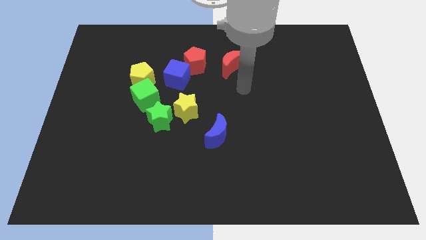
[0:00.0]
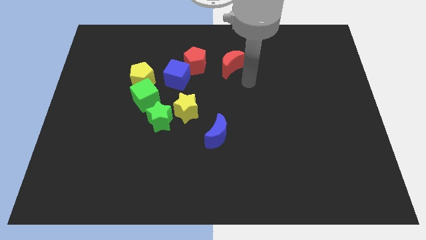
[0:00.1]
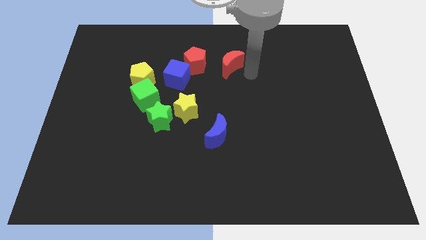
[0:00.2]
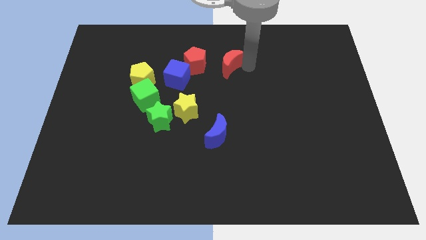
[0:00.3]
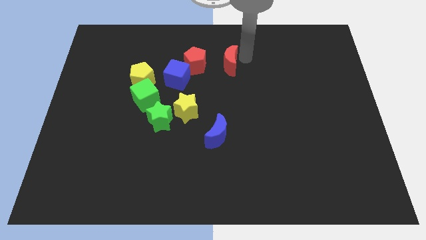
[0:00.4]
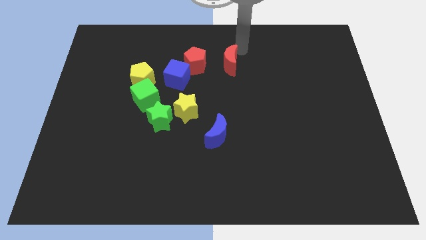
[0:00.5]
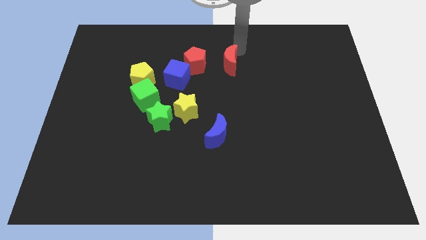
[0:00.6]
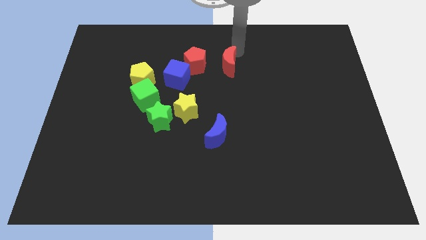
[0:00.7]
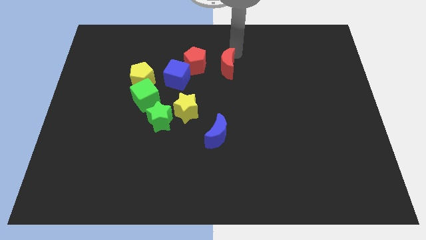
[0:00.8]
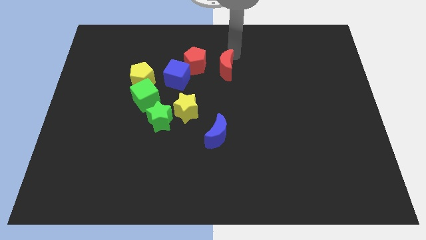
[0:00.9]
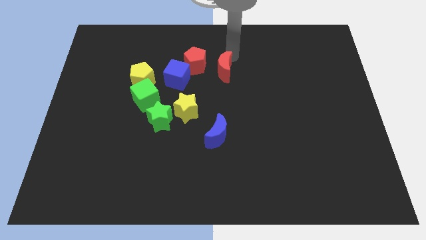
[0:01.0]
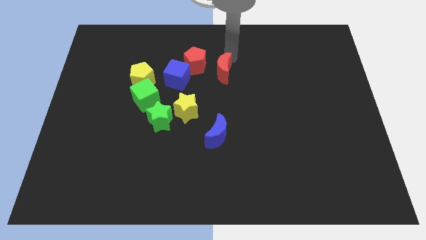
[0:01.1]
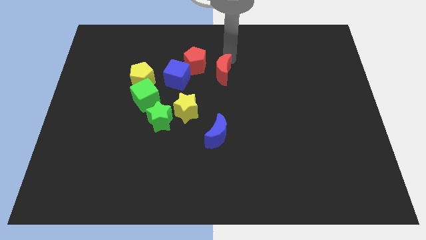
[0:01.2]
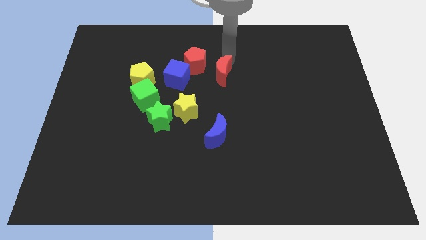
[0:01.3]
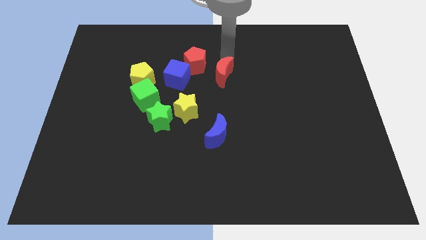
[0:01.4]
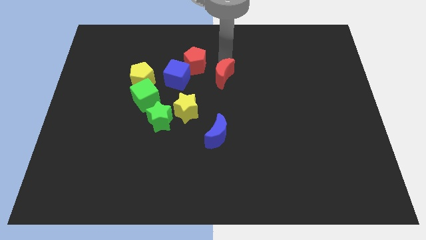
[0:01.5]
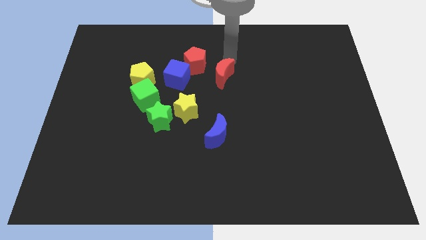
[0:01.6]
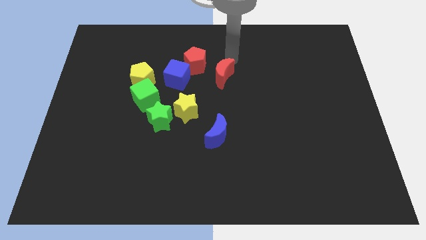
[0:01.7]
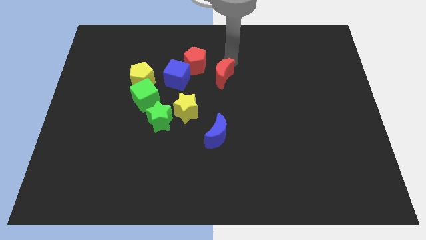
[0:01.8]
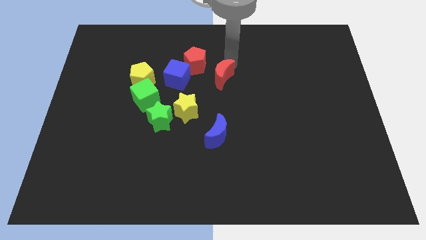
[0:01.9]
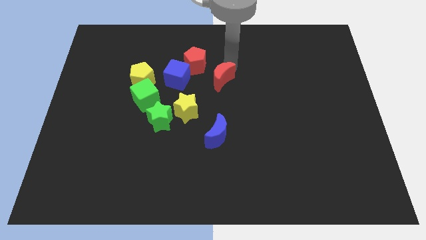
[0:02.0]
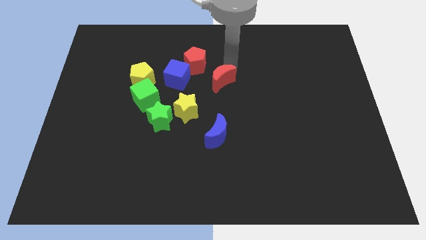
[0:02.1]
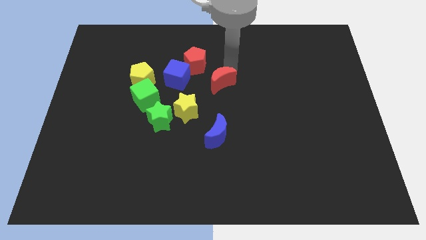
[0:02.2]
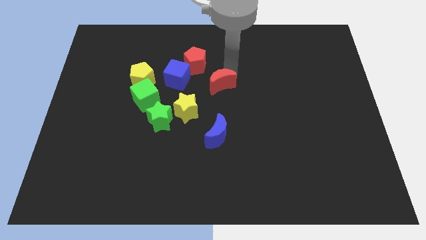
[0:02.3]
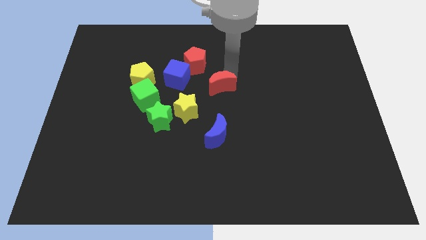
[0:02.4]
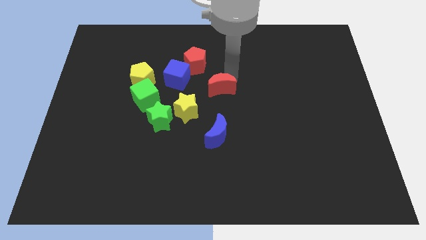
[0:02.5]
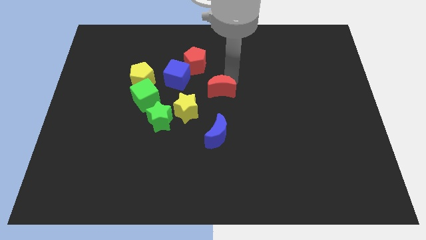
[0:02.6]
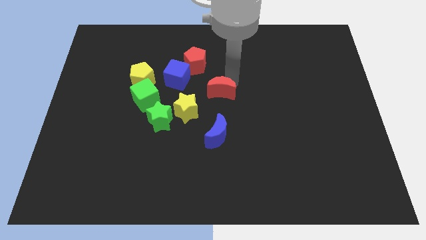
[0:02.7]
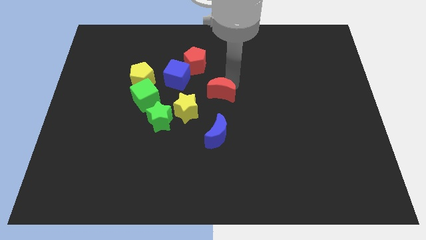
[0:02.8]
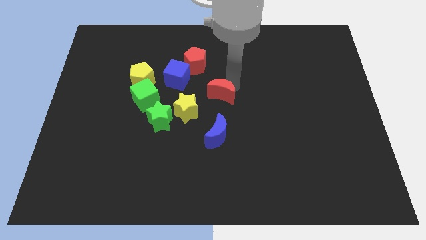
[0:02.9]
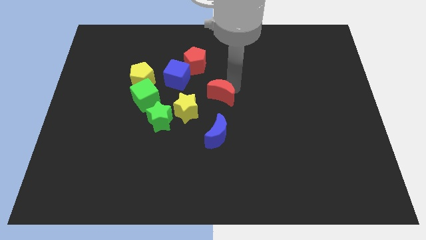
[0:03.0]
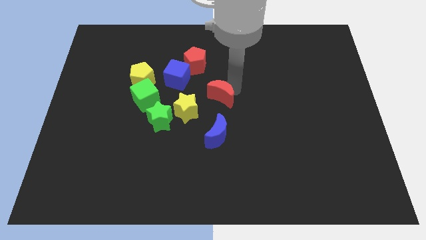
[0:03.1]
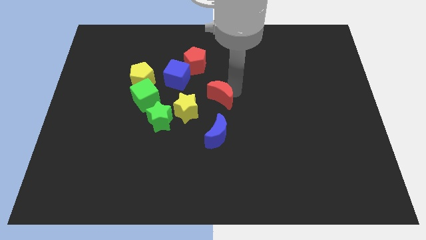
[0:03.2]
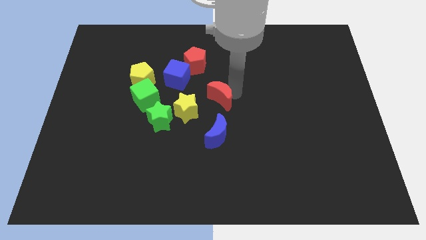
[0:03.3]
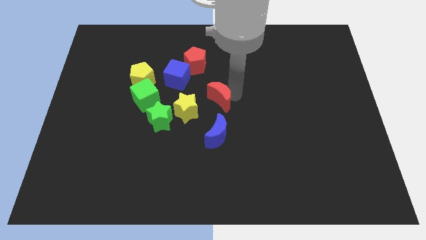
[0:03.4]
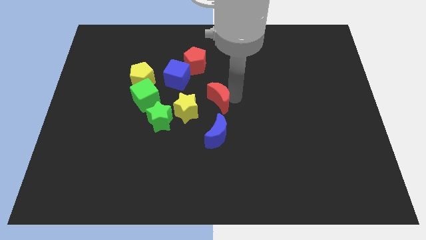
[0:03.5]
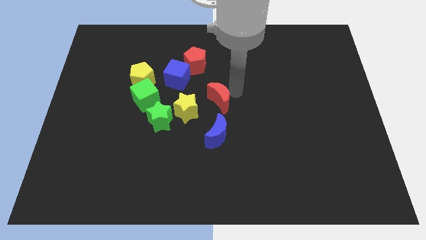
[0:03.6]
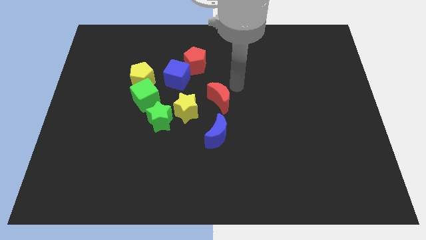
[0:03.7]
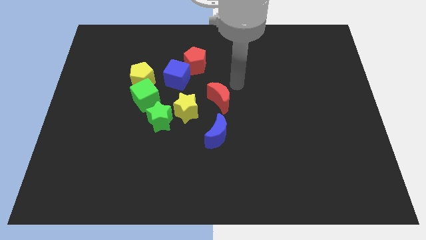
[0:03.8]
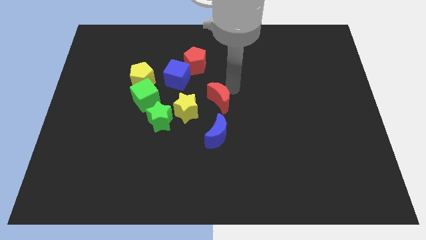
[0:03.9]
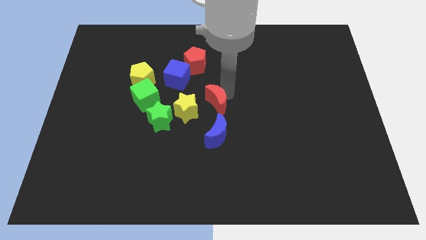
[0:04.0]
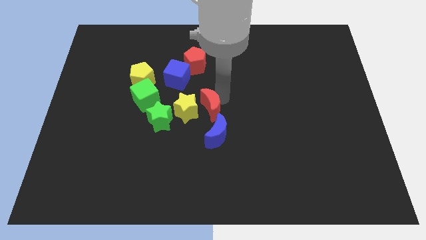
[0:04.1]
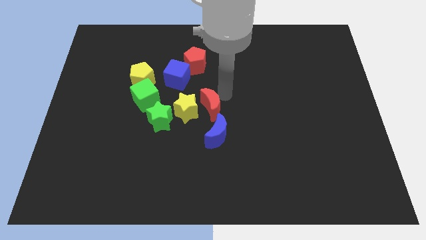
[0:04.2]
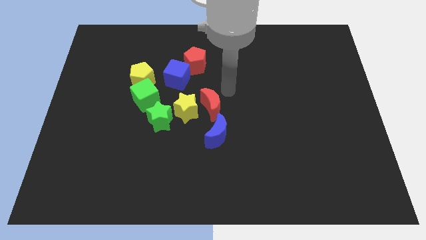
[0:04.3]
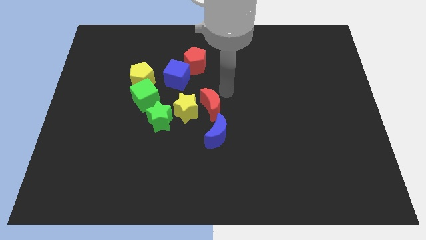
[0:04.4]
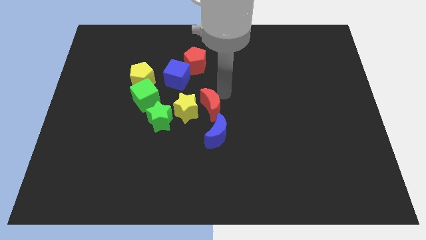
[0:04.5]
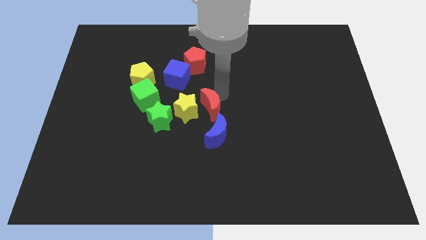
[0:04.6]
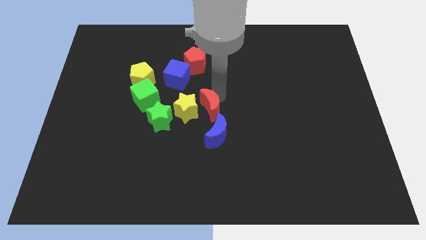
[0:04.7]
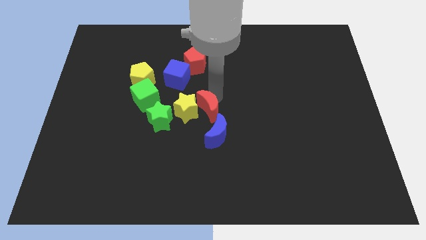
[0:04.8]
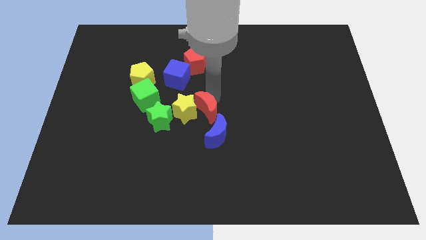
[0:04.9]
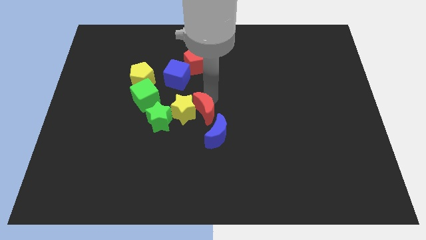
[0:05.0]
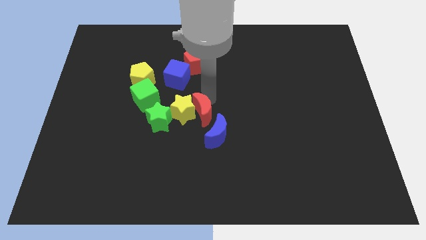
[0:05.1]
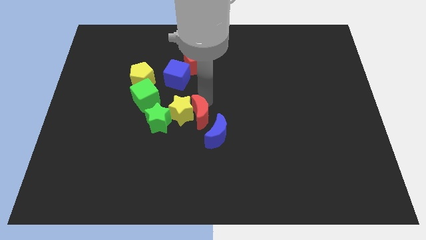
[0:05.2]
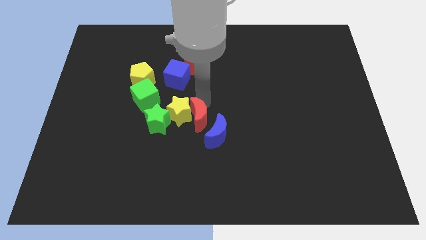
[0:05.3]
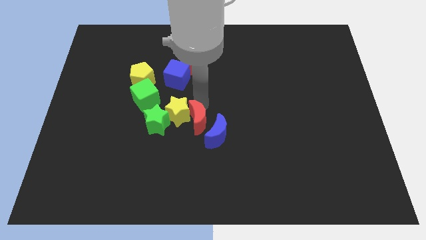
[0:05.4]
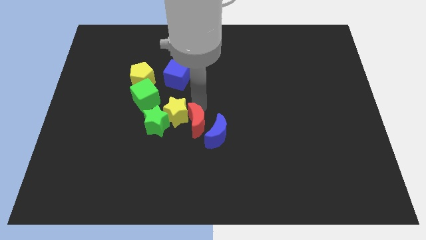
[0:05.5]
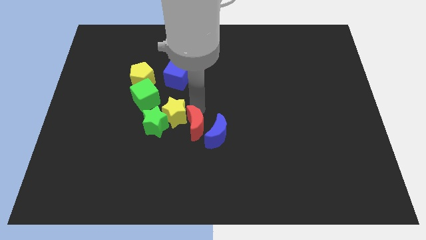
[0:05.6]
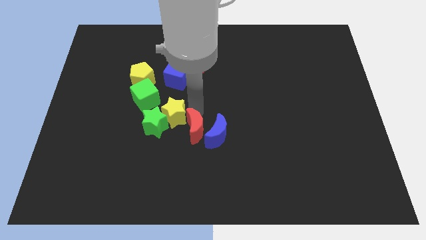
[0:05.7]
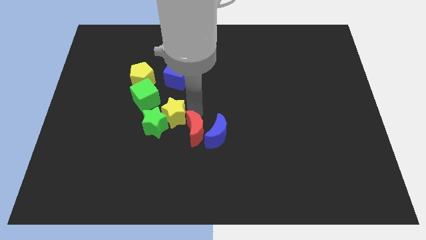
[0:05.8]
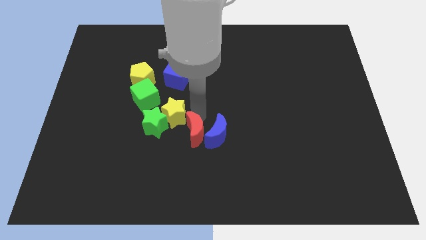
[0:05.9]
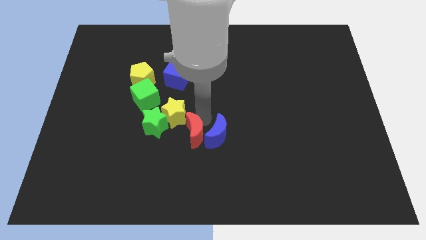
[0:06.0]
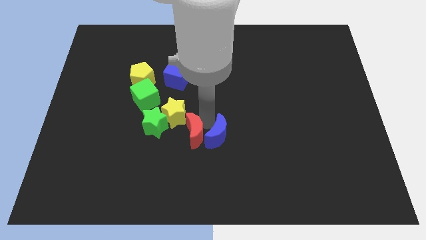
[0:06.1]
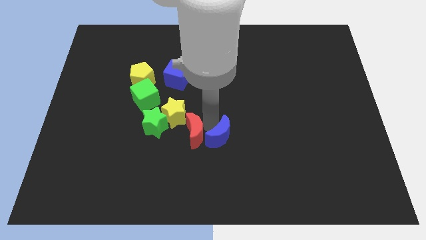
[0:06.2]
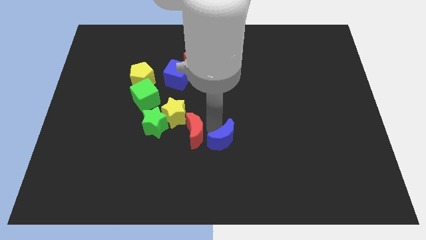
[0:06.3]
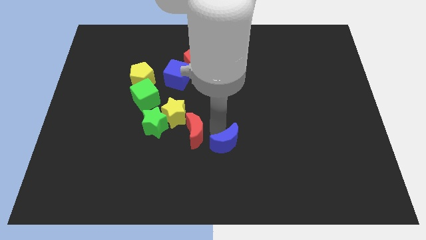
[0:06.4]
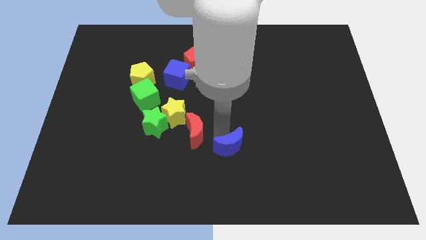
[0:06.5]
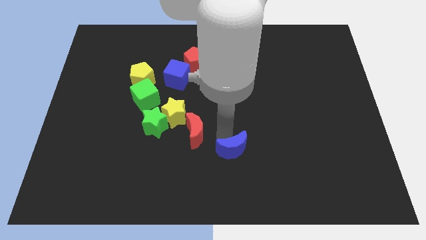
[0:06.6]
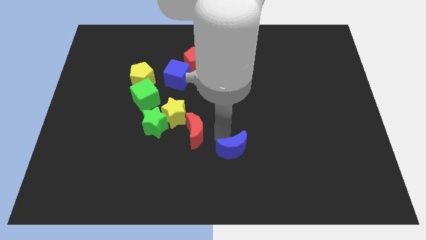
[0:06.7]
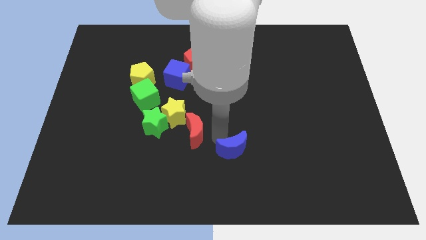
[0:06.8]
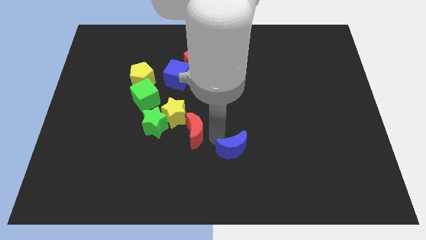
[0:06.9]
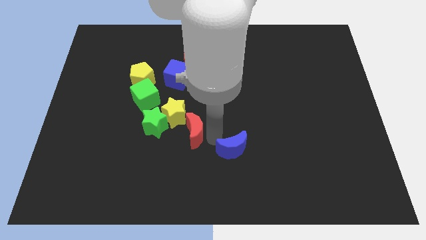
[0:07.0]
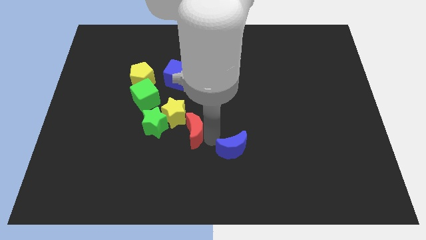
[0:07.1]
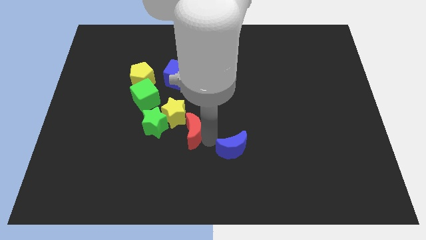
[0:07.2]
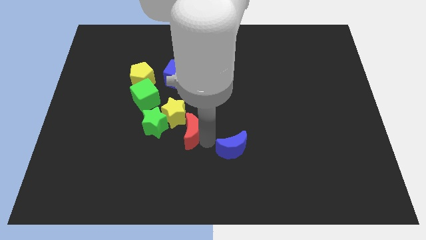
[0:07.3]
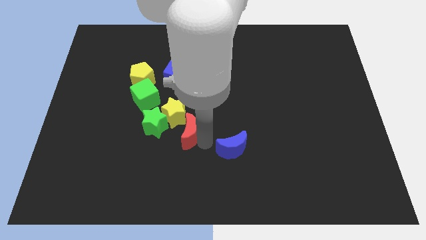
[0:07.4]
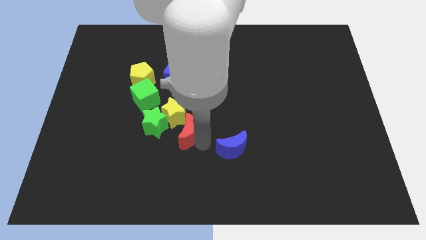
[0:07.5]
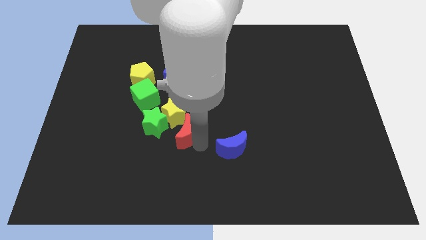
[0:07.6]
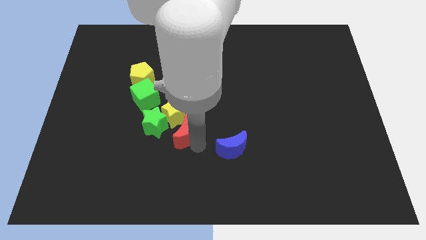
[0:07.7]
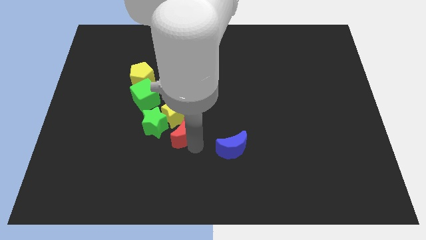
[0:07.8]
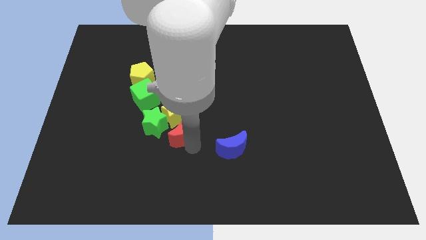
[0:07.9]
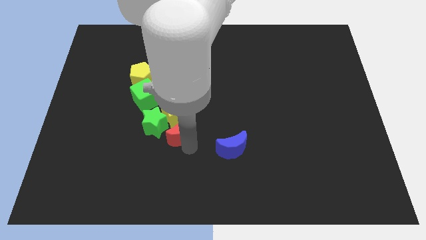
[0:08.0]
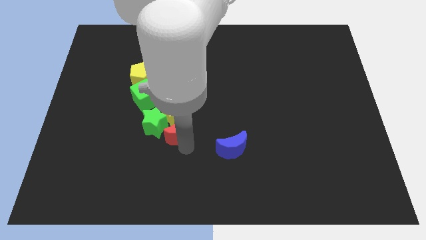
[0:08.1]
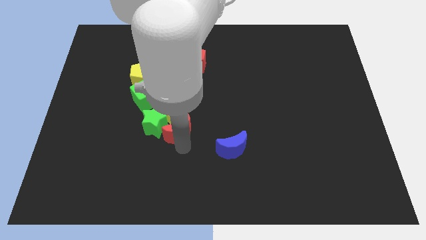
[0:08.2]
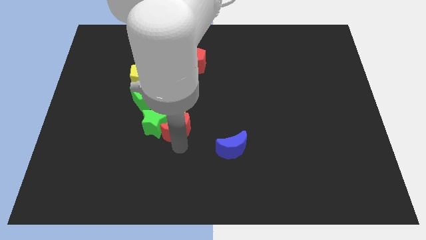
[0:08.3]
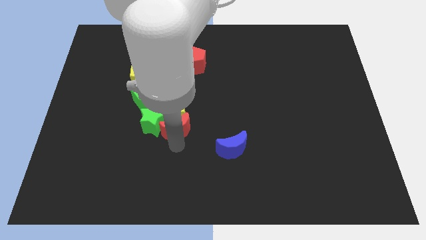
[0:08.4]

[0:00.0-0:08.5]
put the red moon to the bottom of the blue cube

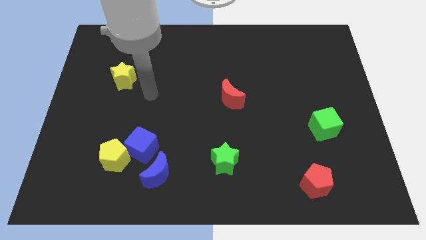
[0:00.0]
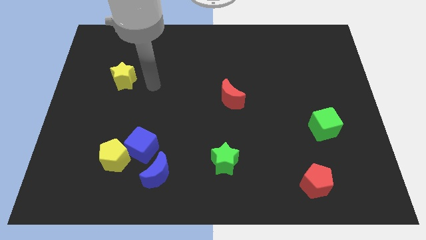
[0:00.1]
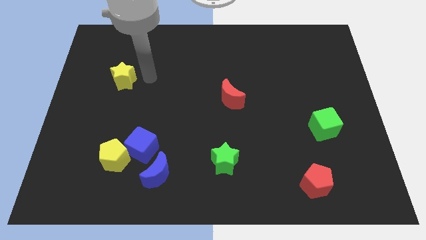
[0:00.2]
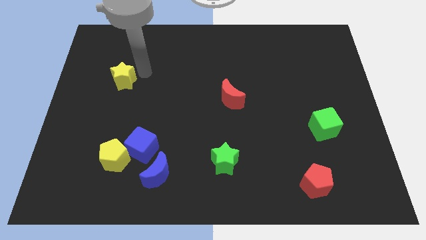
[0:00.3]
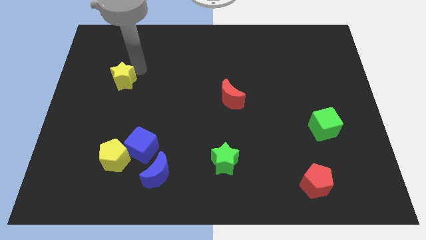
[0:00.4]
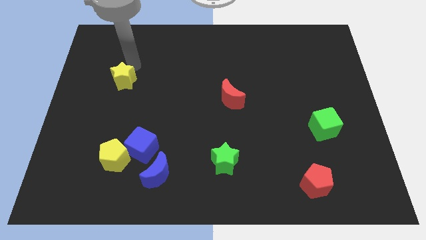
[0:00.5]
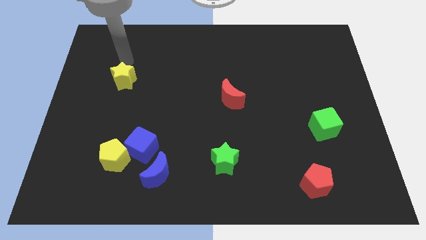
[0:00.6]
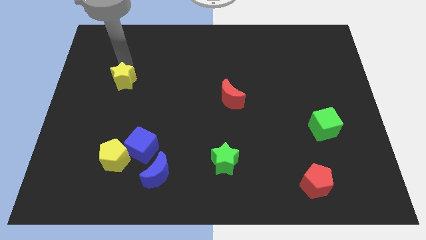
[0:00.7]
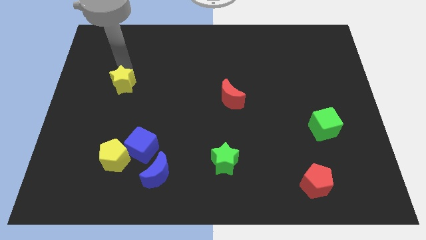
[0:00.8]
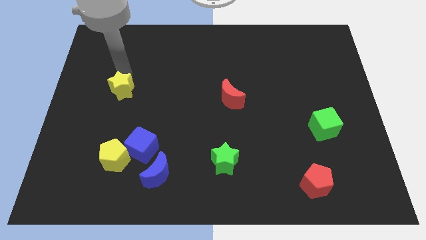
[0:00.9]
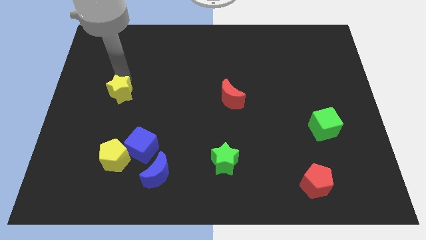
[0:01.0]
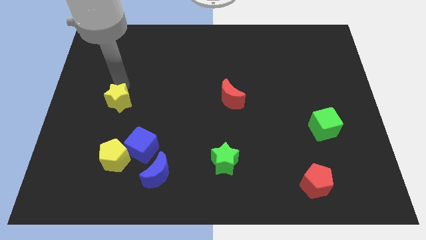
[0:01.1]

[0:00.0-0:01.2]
put the yellow star to the top of the yellow pentagon
